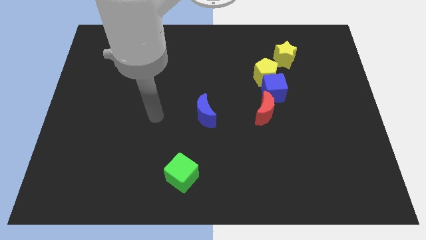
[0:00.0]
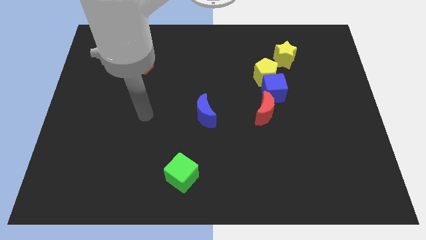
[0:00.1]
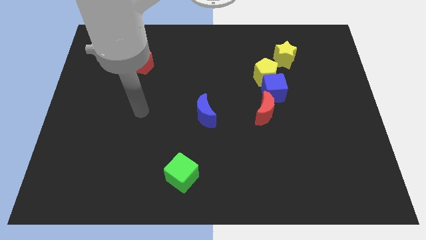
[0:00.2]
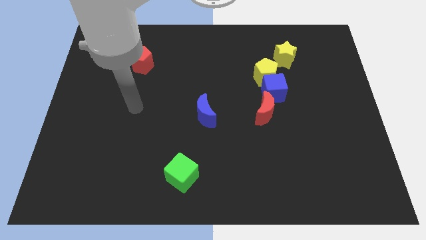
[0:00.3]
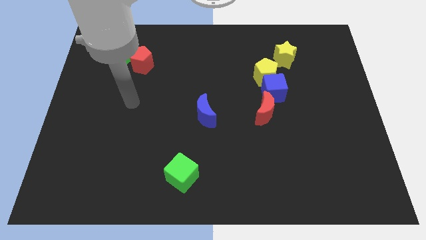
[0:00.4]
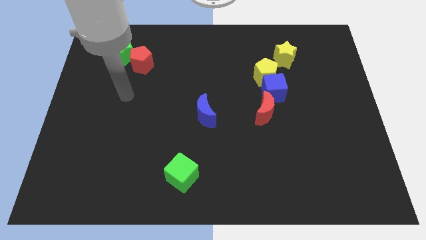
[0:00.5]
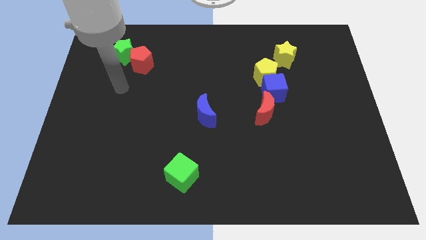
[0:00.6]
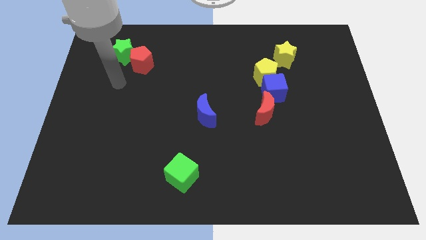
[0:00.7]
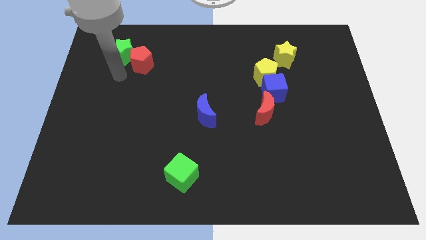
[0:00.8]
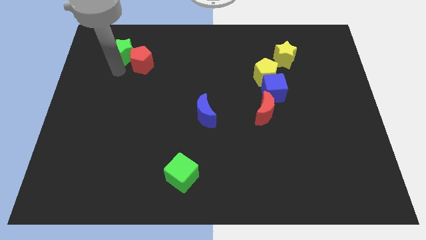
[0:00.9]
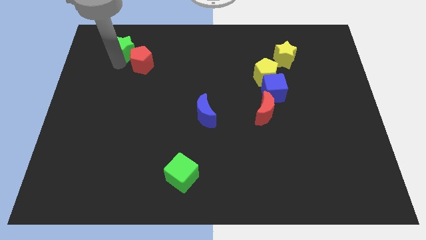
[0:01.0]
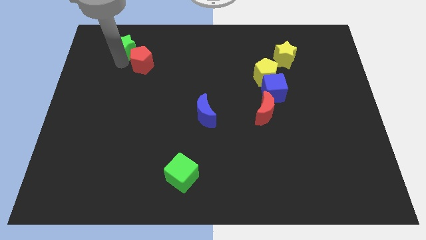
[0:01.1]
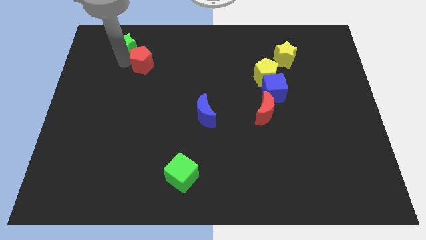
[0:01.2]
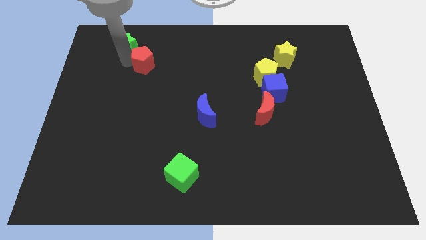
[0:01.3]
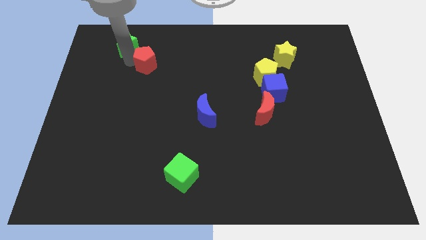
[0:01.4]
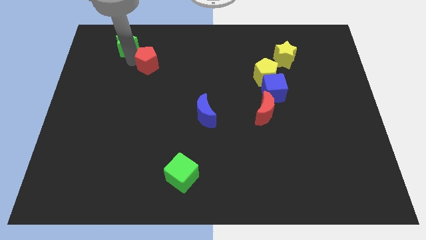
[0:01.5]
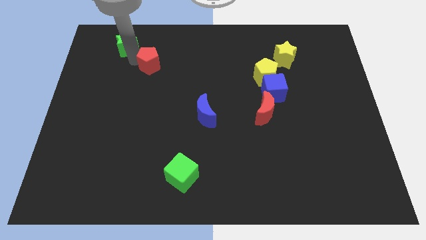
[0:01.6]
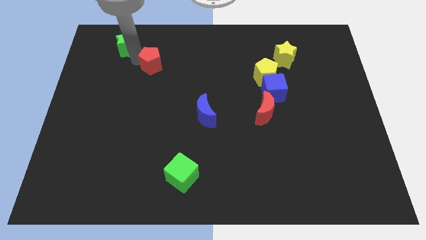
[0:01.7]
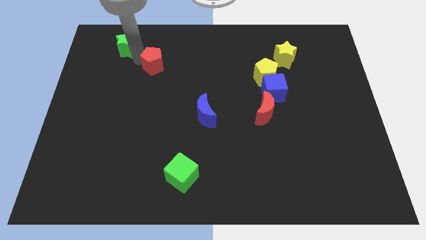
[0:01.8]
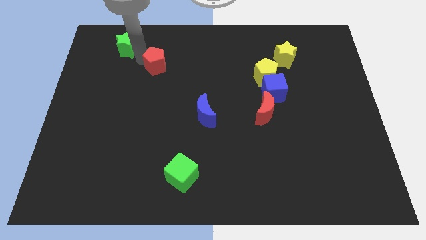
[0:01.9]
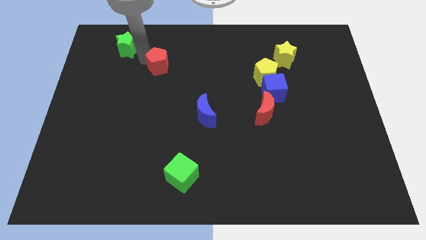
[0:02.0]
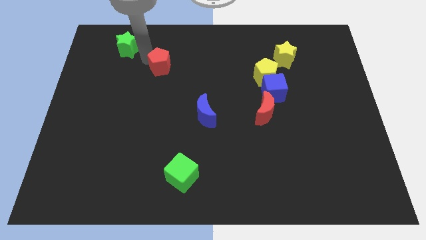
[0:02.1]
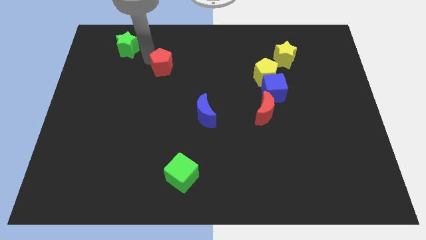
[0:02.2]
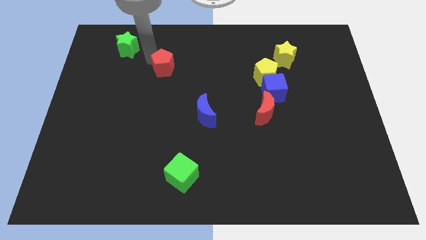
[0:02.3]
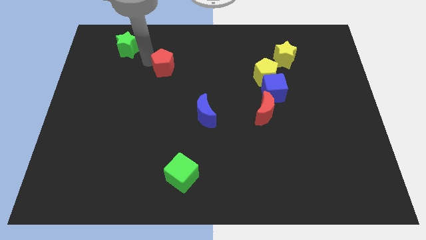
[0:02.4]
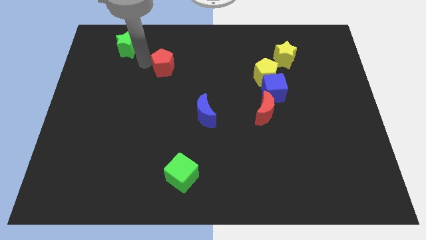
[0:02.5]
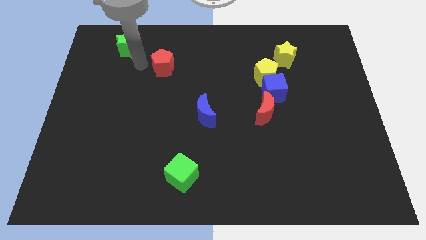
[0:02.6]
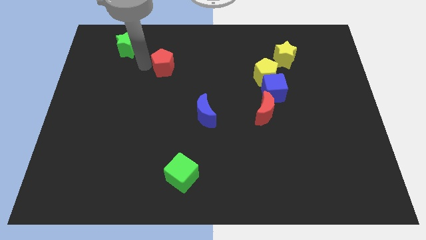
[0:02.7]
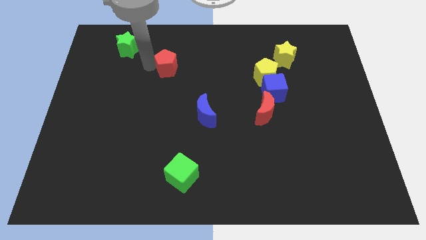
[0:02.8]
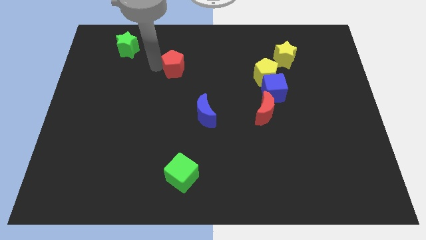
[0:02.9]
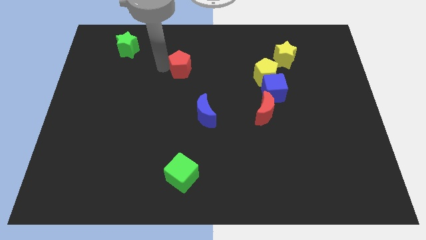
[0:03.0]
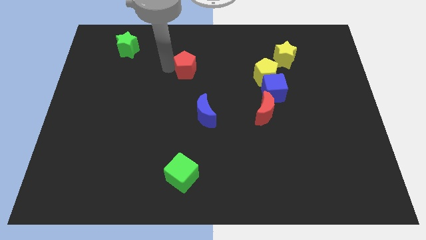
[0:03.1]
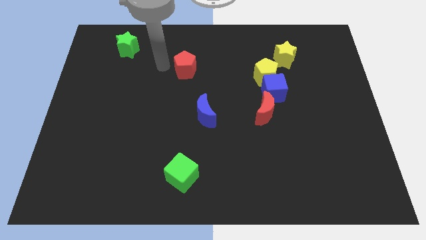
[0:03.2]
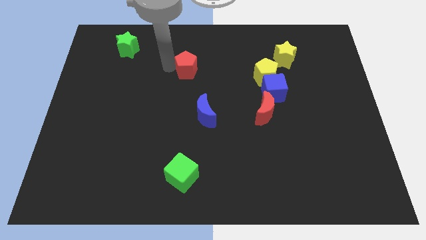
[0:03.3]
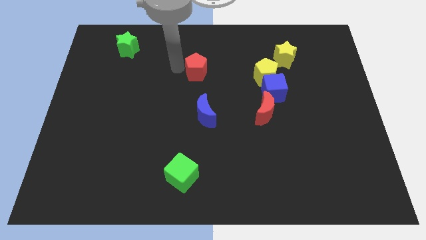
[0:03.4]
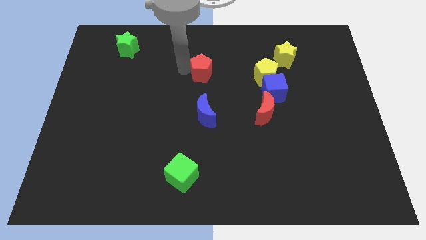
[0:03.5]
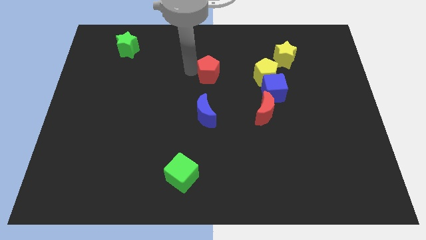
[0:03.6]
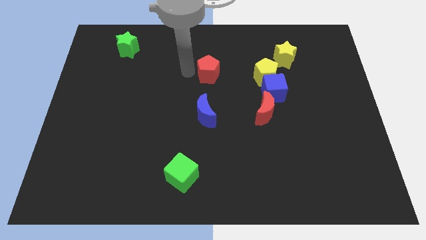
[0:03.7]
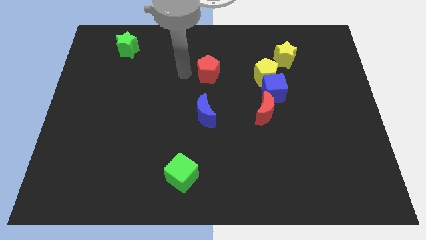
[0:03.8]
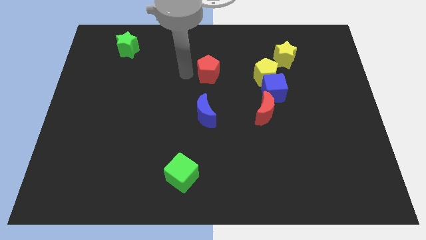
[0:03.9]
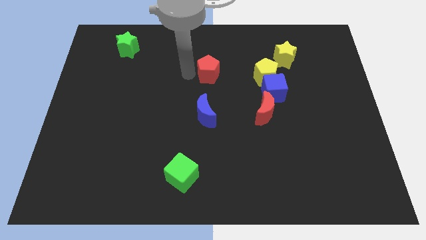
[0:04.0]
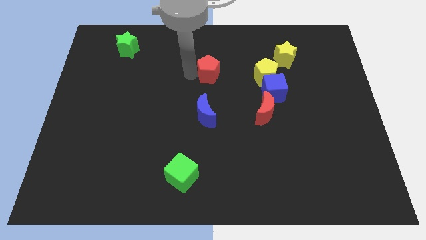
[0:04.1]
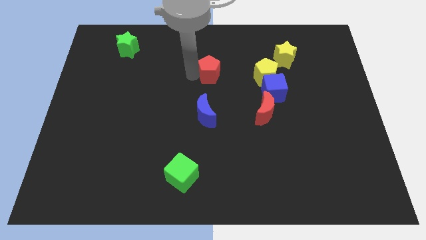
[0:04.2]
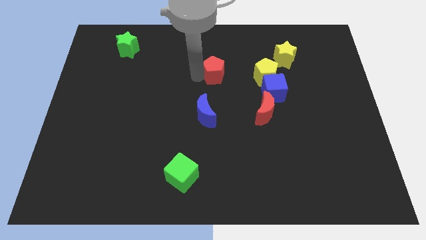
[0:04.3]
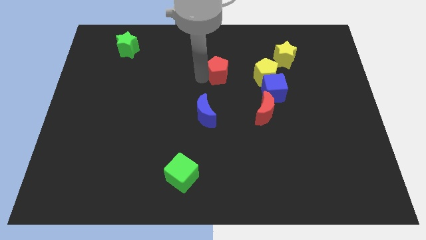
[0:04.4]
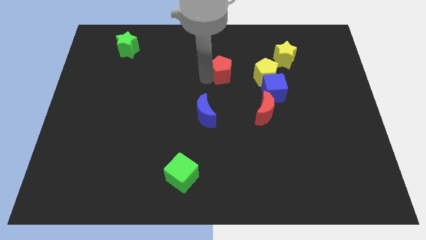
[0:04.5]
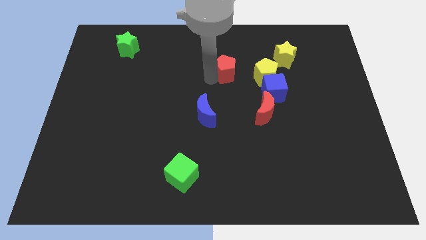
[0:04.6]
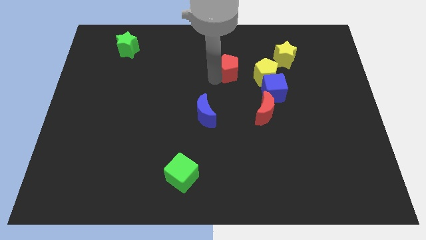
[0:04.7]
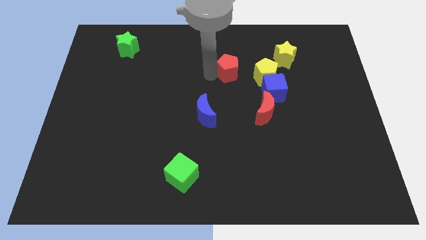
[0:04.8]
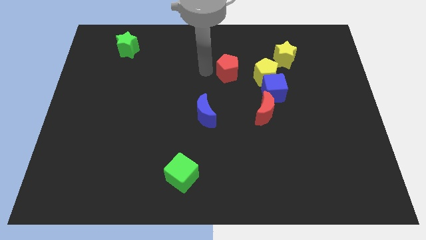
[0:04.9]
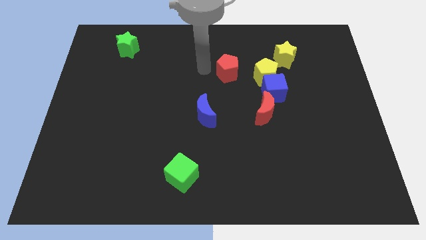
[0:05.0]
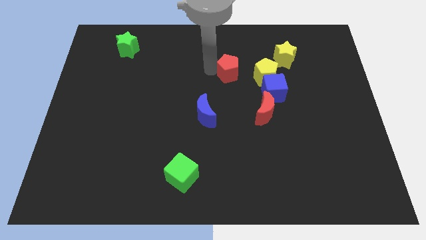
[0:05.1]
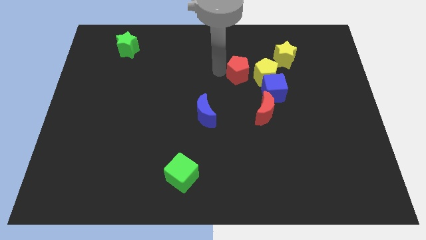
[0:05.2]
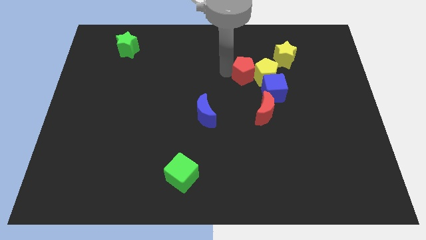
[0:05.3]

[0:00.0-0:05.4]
put the red pentagon close to the yellow pentagon

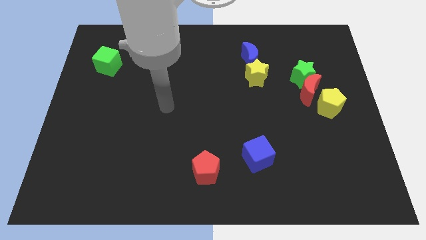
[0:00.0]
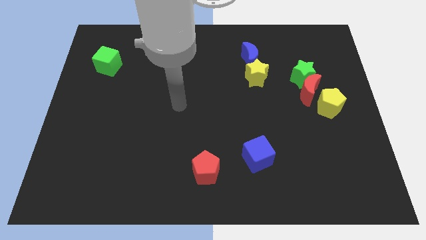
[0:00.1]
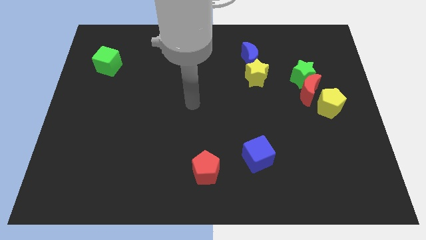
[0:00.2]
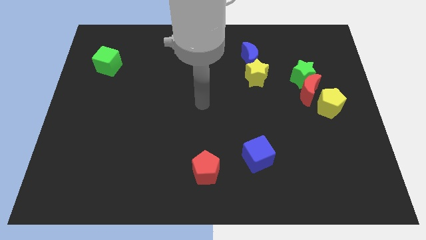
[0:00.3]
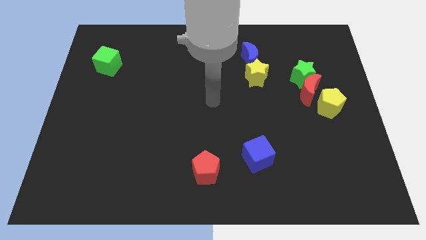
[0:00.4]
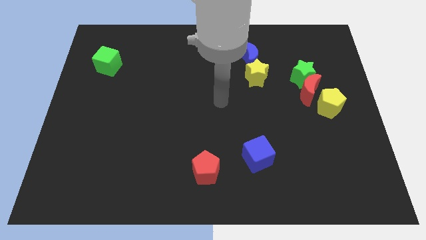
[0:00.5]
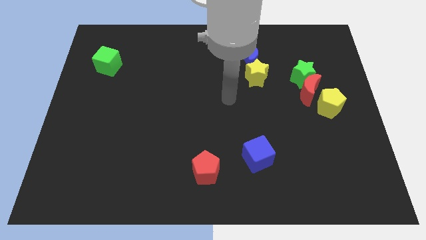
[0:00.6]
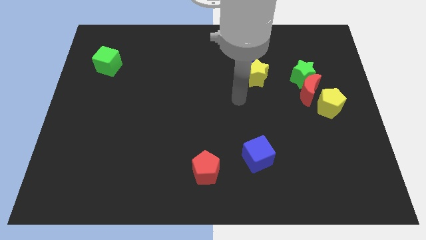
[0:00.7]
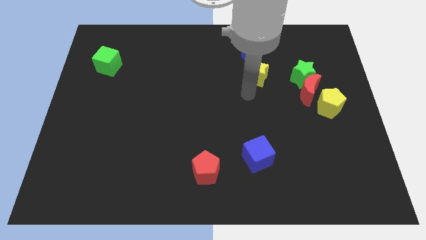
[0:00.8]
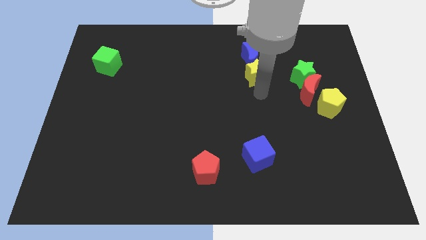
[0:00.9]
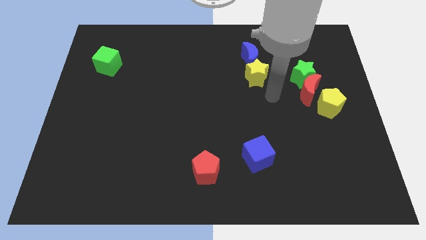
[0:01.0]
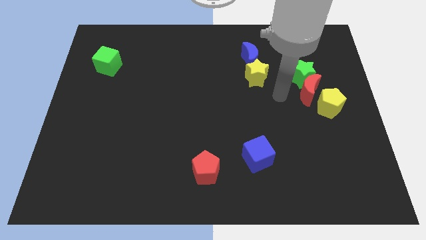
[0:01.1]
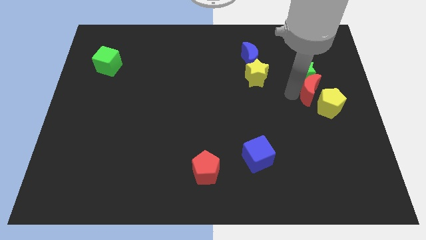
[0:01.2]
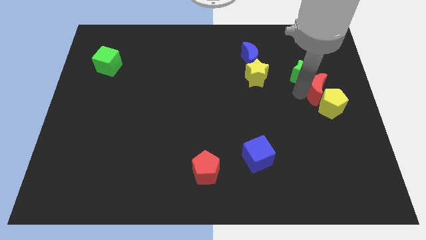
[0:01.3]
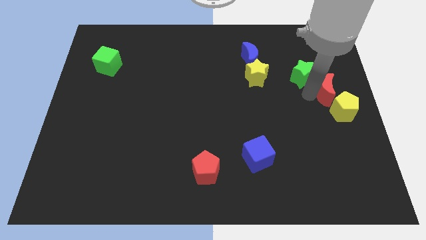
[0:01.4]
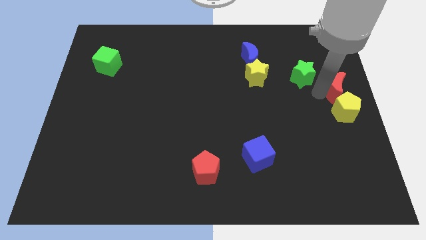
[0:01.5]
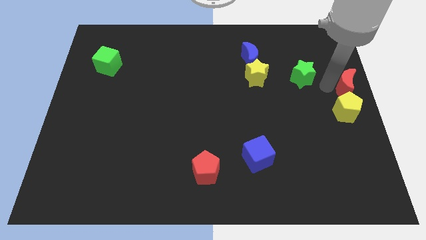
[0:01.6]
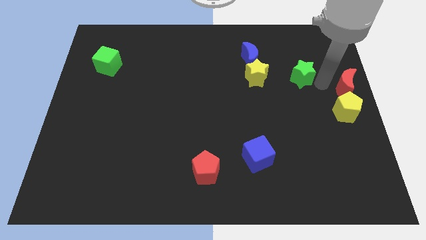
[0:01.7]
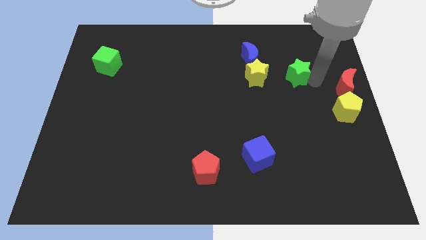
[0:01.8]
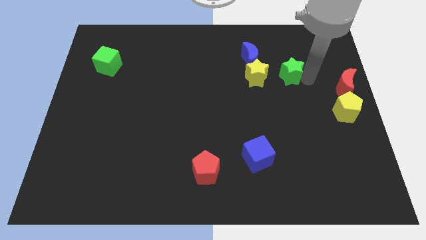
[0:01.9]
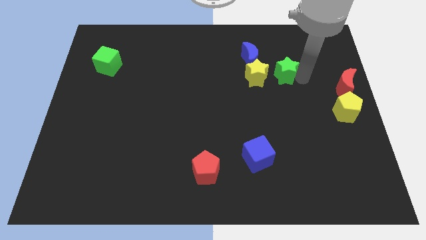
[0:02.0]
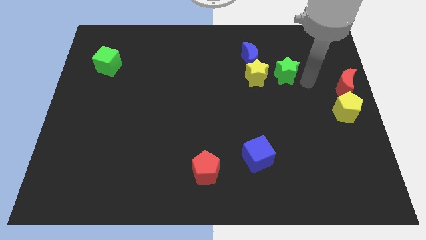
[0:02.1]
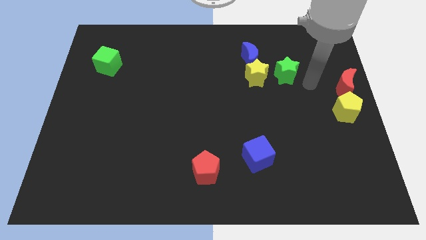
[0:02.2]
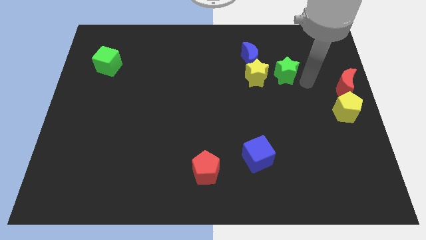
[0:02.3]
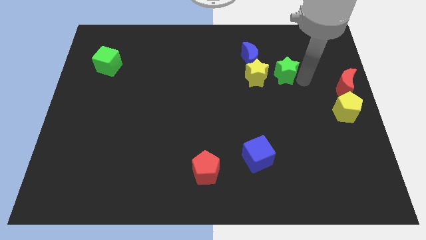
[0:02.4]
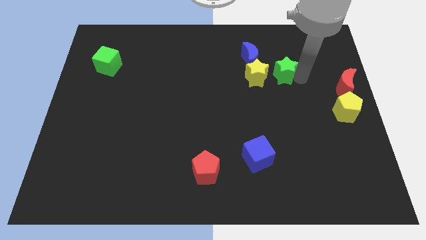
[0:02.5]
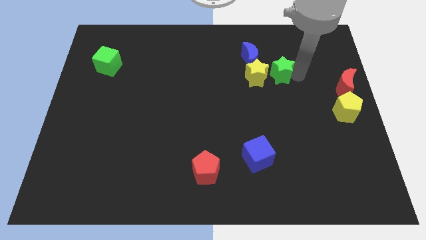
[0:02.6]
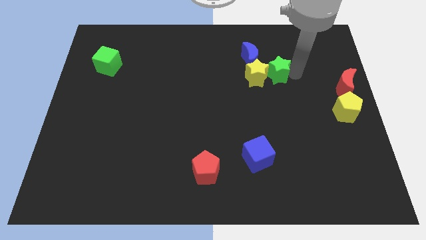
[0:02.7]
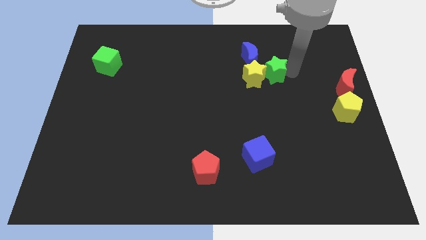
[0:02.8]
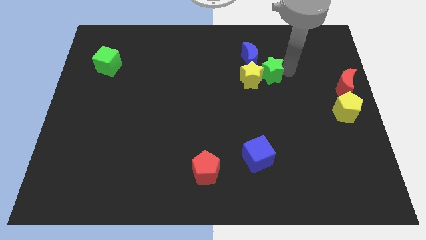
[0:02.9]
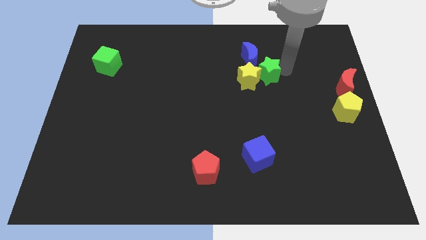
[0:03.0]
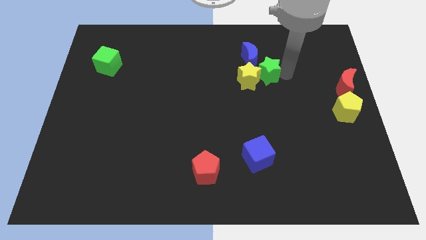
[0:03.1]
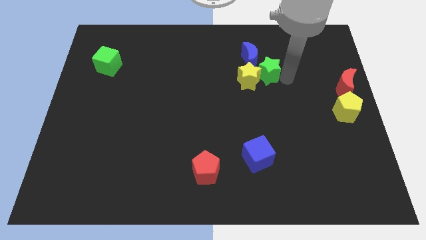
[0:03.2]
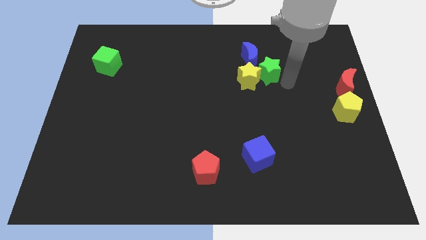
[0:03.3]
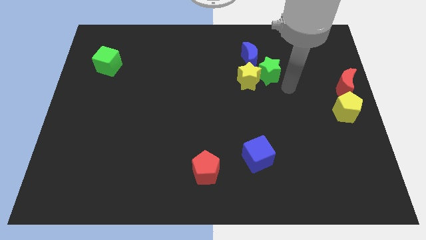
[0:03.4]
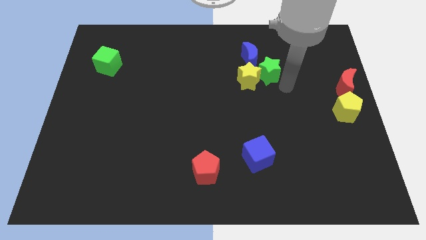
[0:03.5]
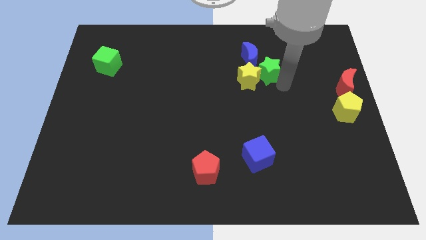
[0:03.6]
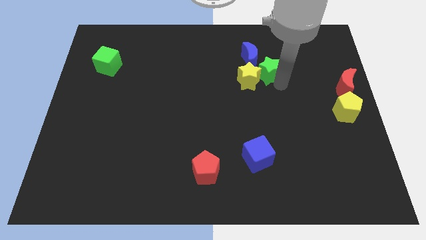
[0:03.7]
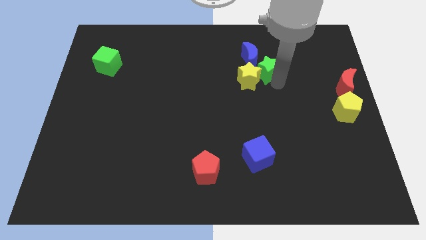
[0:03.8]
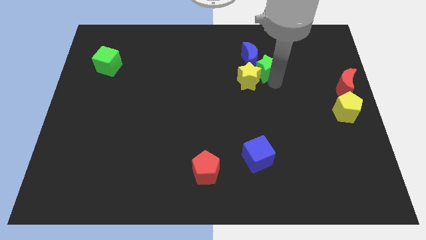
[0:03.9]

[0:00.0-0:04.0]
move the green star towards the blue moon
